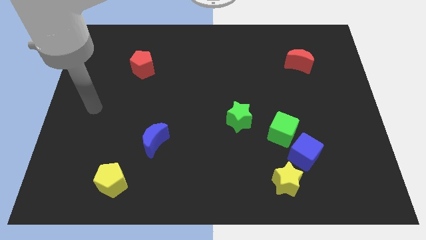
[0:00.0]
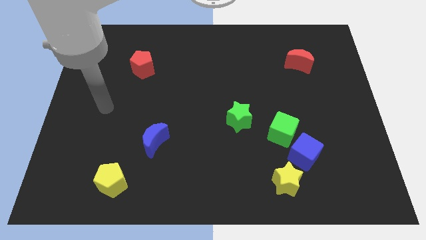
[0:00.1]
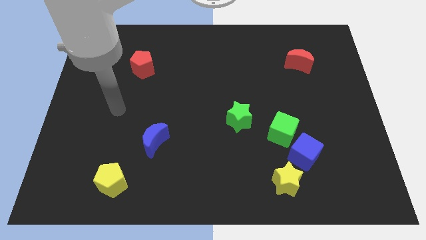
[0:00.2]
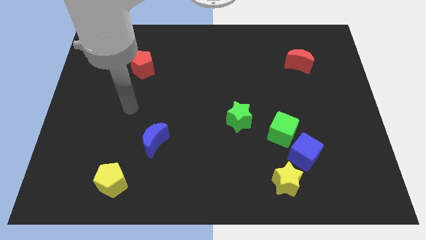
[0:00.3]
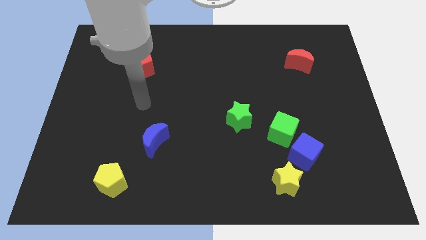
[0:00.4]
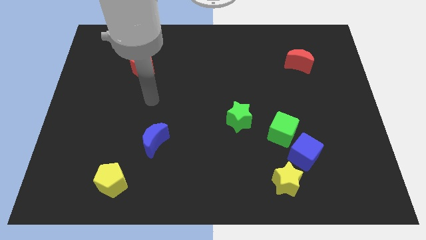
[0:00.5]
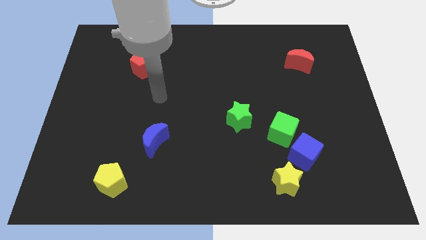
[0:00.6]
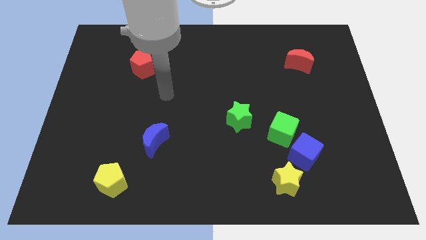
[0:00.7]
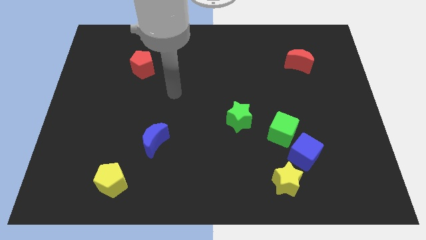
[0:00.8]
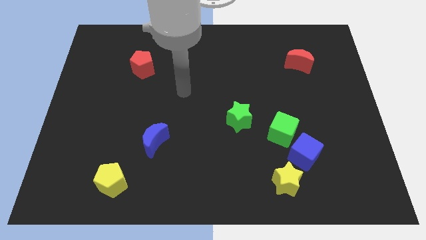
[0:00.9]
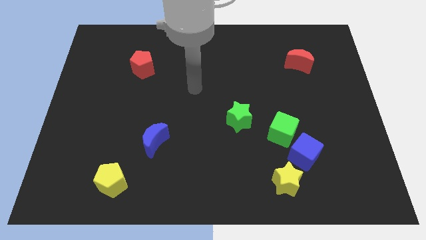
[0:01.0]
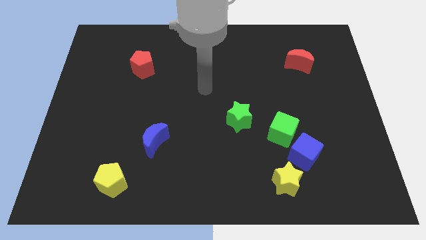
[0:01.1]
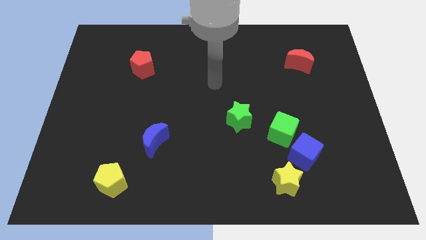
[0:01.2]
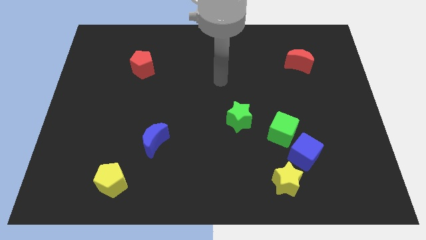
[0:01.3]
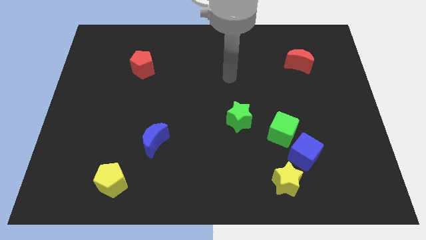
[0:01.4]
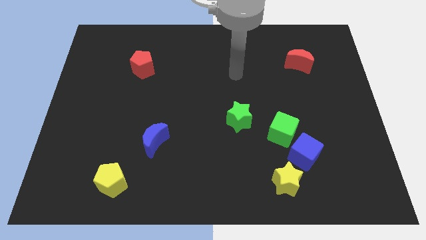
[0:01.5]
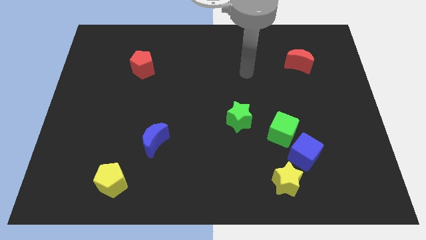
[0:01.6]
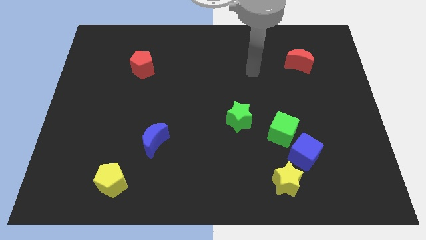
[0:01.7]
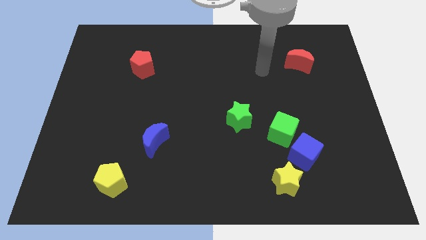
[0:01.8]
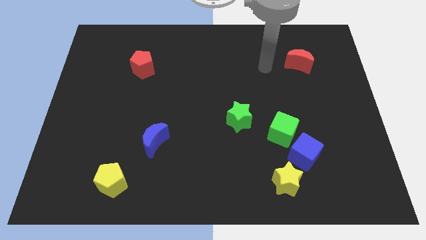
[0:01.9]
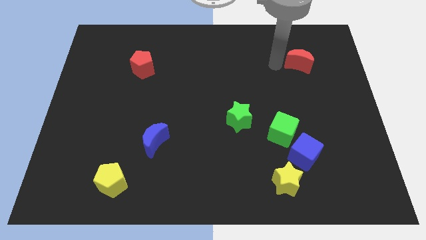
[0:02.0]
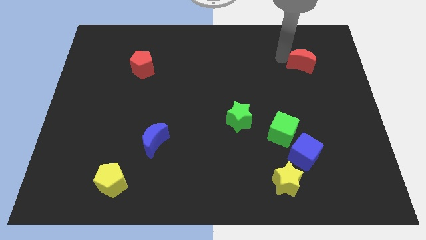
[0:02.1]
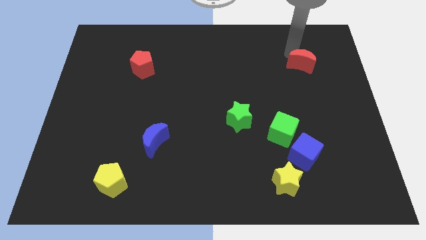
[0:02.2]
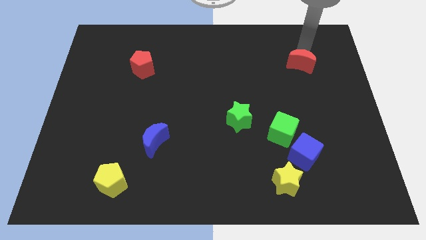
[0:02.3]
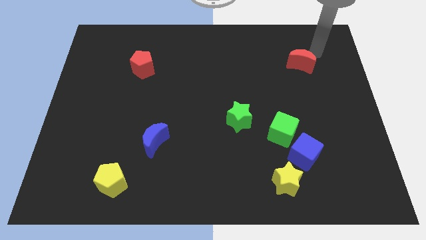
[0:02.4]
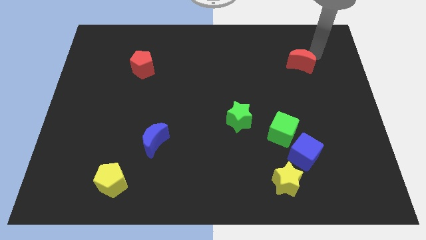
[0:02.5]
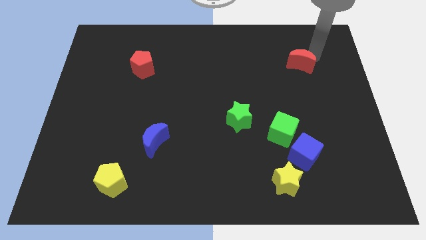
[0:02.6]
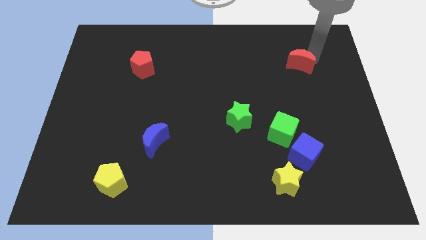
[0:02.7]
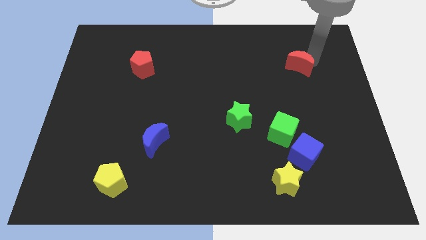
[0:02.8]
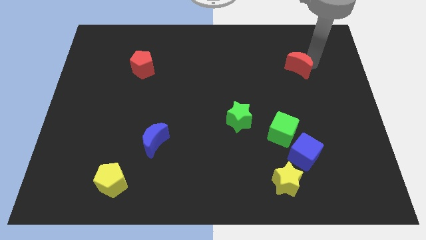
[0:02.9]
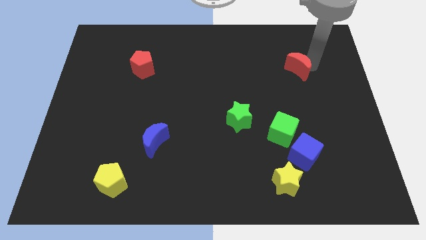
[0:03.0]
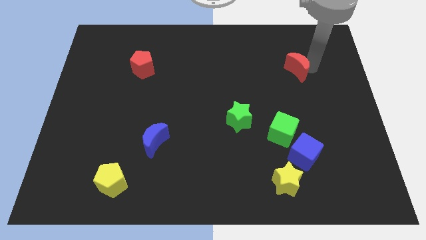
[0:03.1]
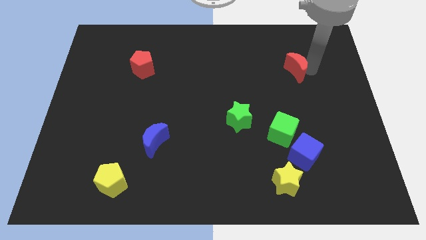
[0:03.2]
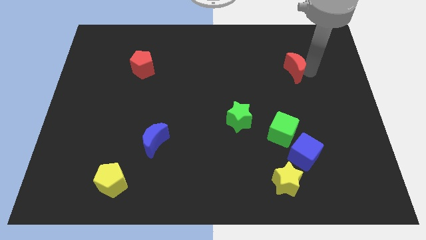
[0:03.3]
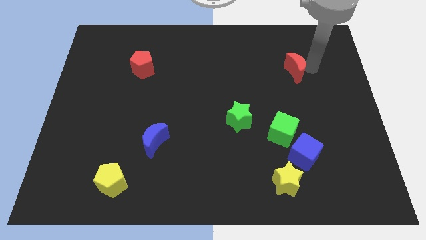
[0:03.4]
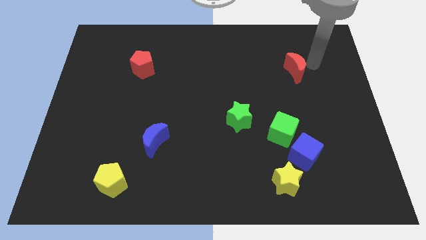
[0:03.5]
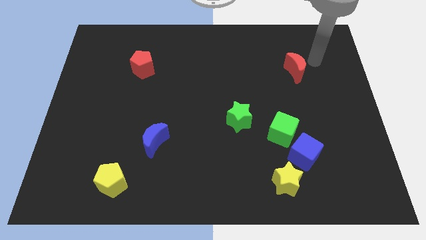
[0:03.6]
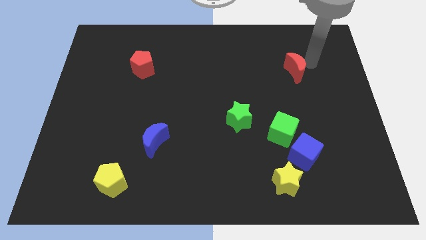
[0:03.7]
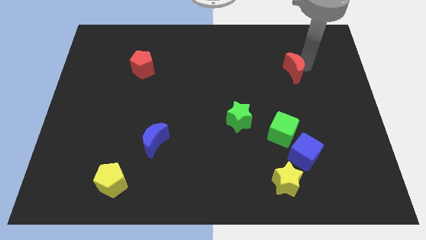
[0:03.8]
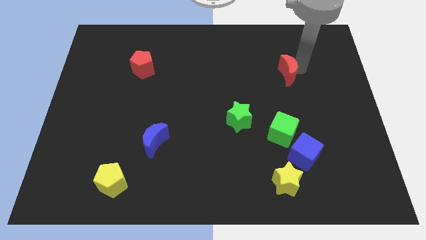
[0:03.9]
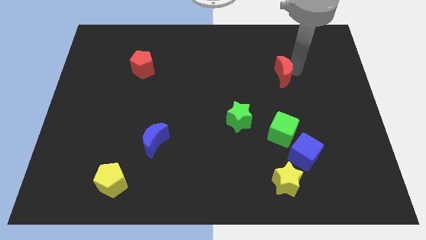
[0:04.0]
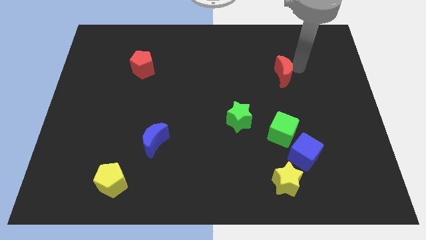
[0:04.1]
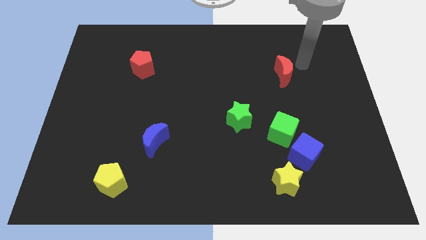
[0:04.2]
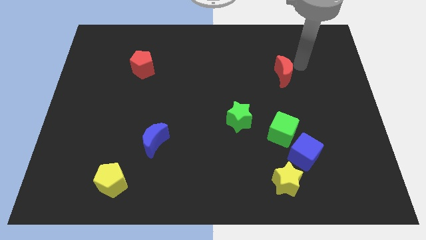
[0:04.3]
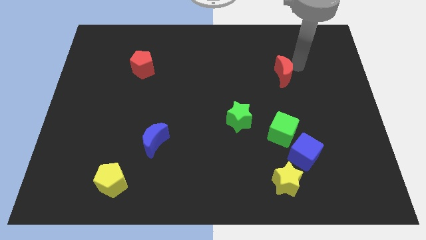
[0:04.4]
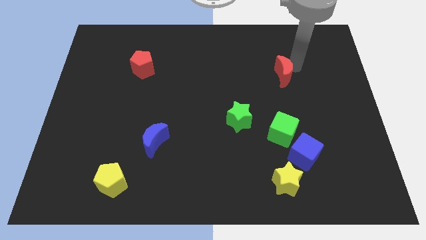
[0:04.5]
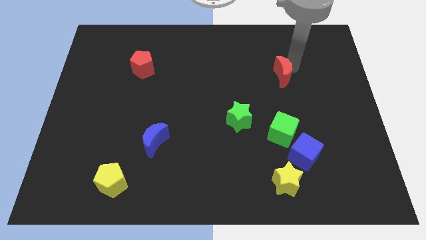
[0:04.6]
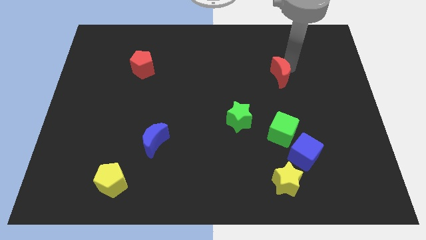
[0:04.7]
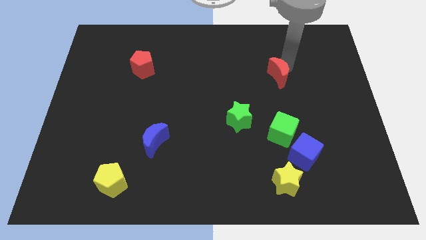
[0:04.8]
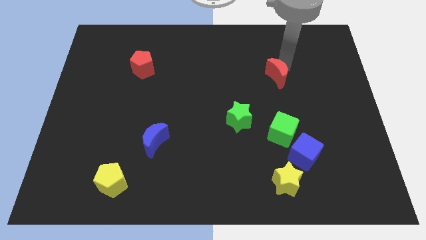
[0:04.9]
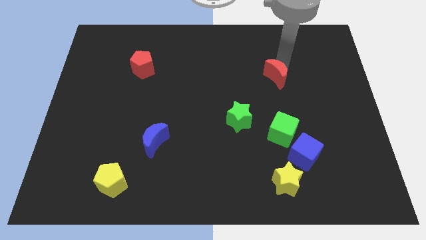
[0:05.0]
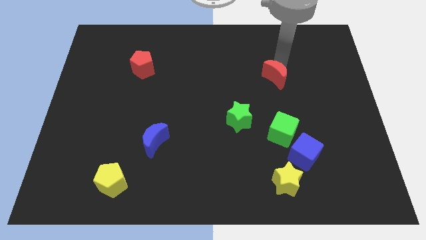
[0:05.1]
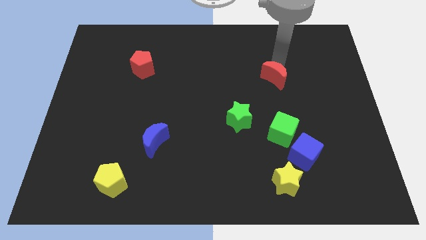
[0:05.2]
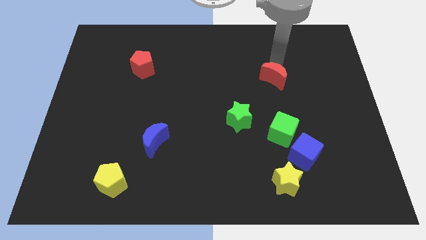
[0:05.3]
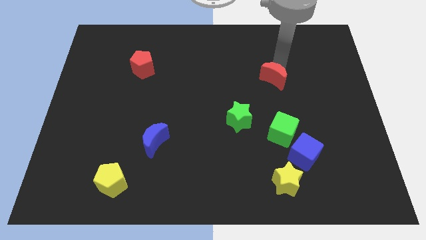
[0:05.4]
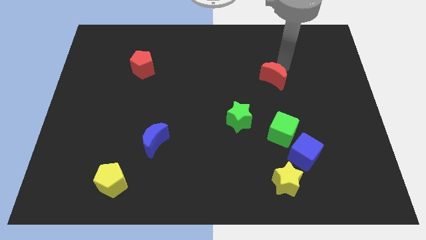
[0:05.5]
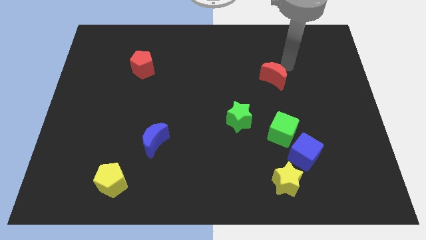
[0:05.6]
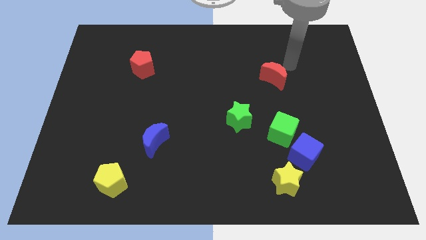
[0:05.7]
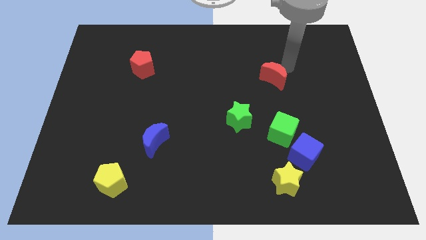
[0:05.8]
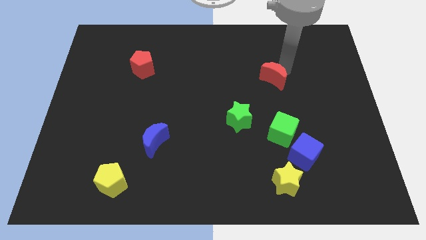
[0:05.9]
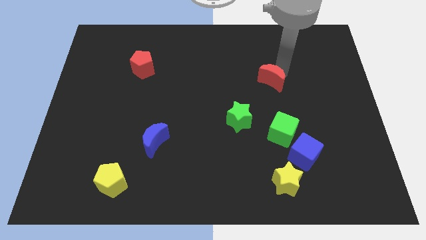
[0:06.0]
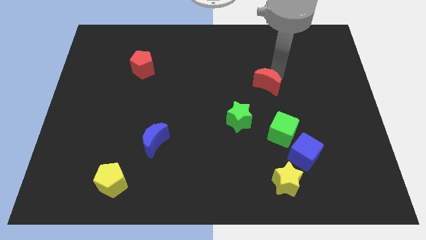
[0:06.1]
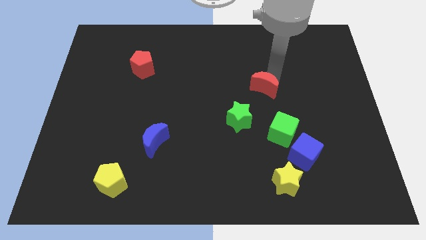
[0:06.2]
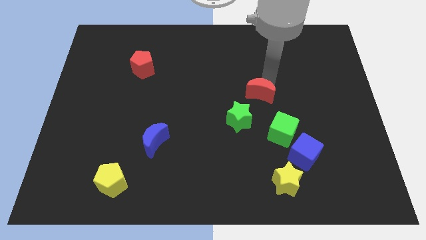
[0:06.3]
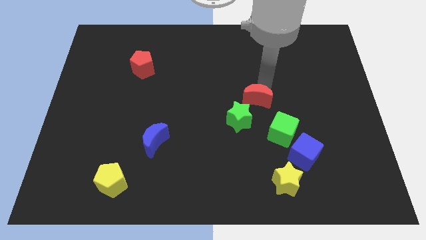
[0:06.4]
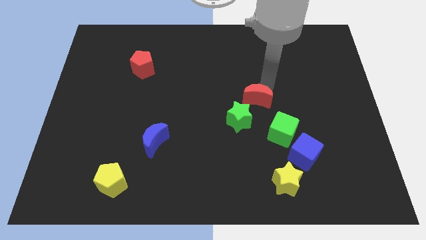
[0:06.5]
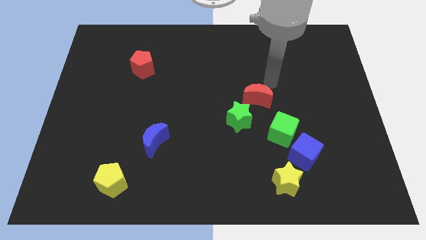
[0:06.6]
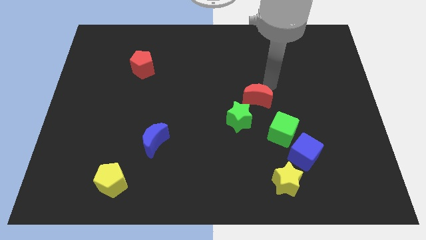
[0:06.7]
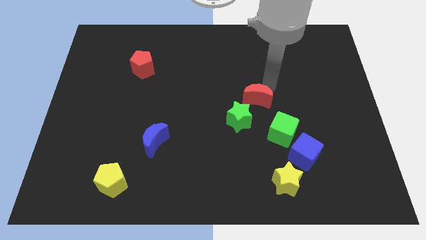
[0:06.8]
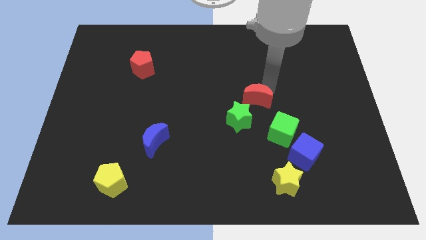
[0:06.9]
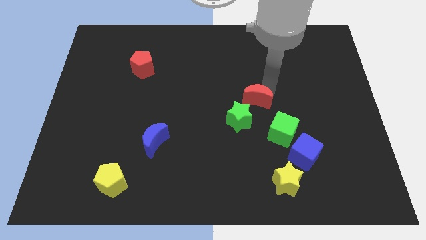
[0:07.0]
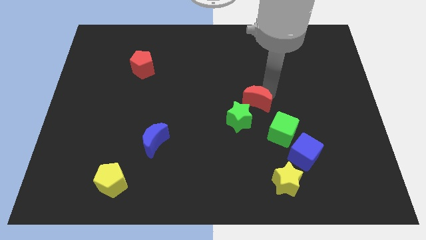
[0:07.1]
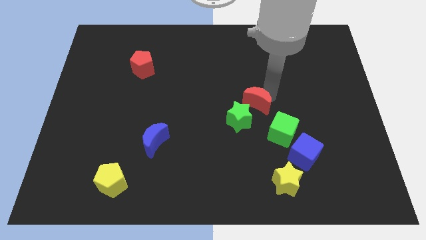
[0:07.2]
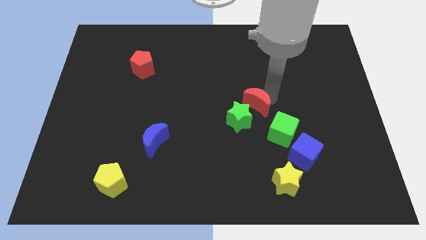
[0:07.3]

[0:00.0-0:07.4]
push the red moon towards the green star

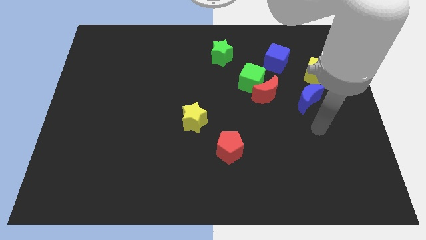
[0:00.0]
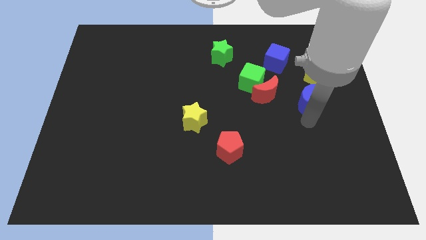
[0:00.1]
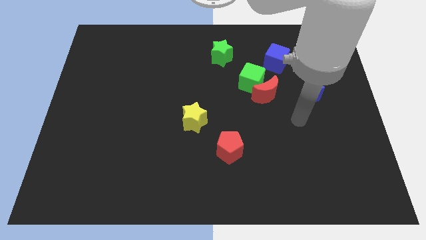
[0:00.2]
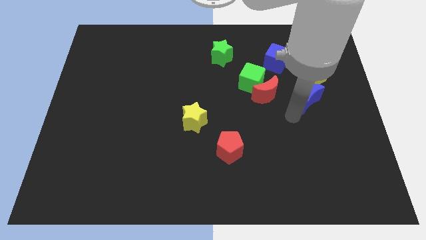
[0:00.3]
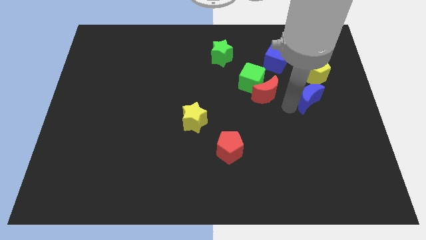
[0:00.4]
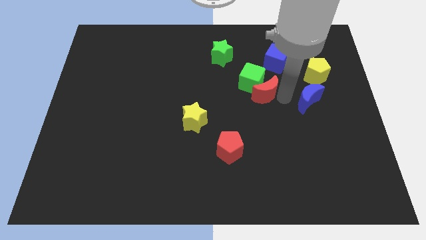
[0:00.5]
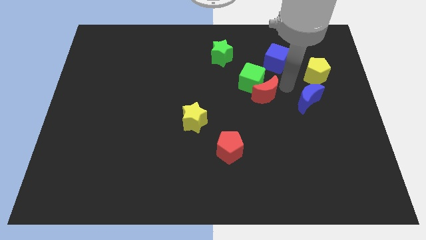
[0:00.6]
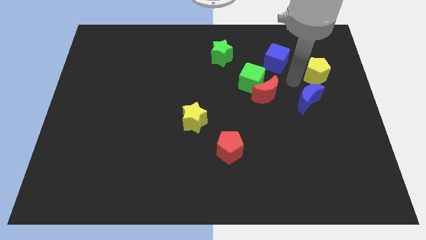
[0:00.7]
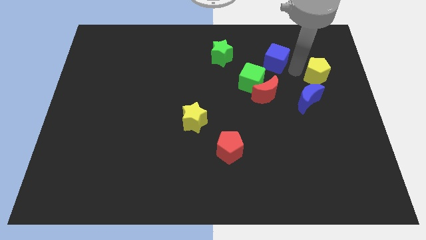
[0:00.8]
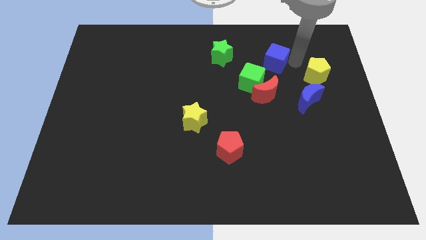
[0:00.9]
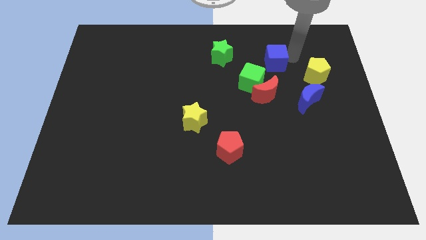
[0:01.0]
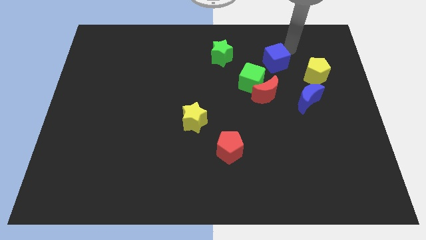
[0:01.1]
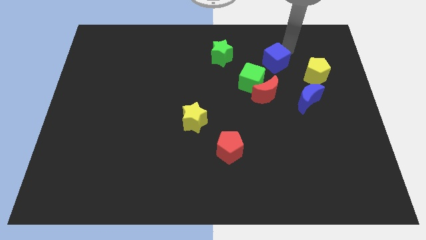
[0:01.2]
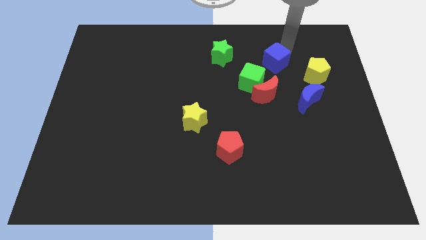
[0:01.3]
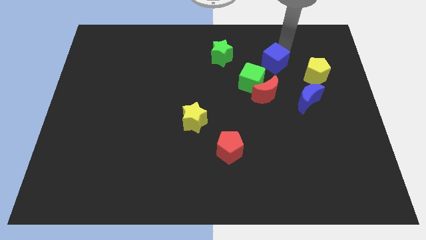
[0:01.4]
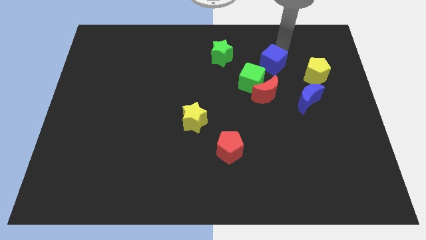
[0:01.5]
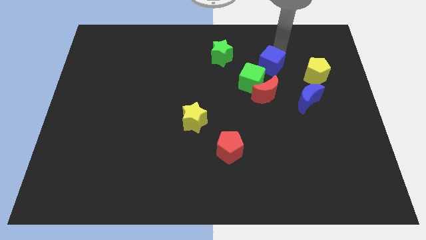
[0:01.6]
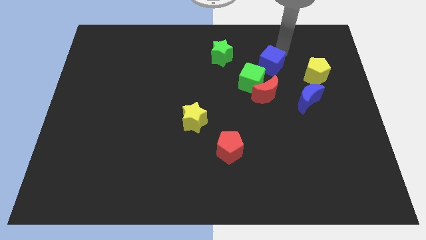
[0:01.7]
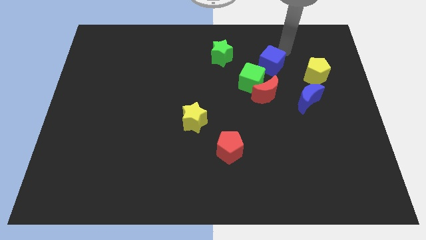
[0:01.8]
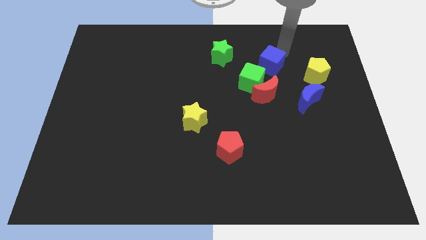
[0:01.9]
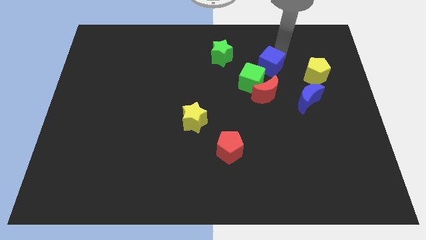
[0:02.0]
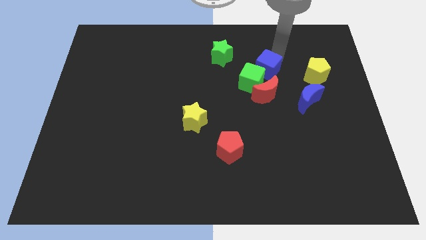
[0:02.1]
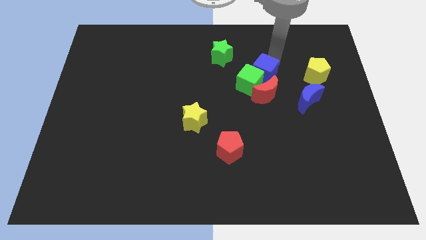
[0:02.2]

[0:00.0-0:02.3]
put the blue cube to the green cube
